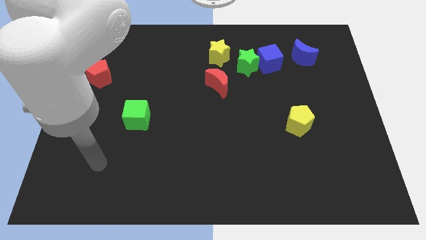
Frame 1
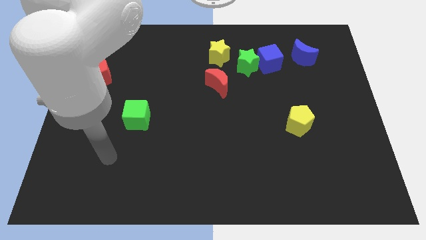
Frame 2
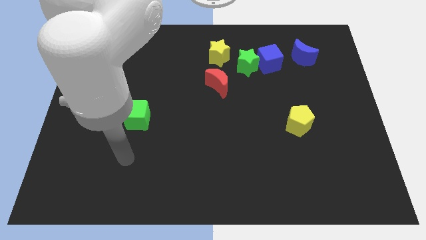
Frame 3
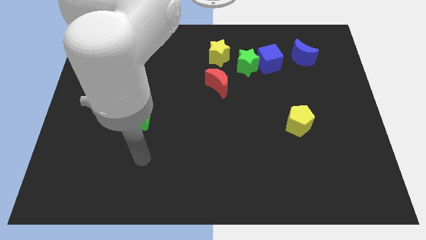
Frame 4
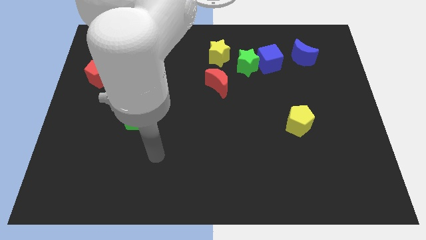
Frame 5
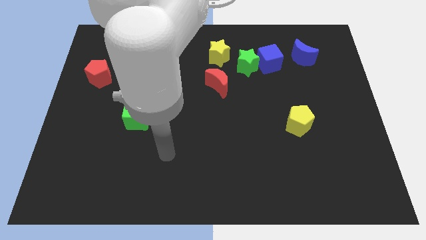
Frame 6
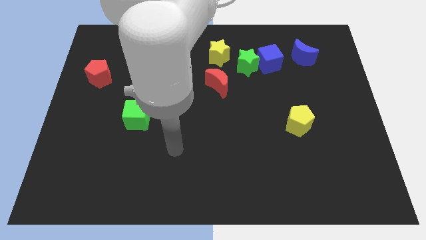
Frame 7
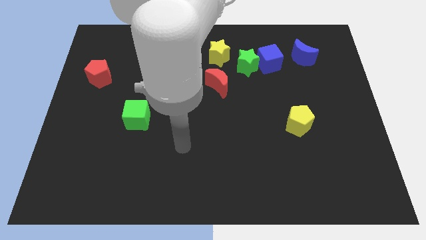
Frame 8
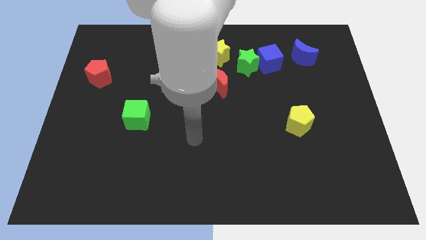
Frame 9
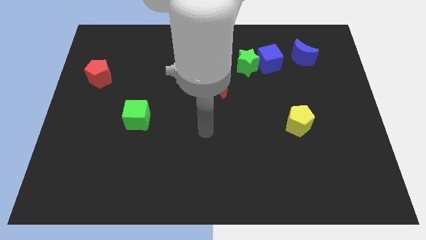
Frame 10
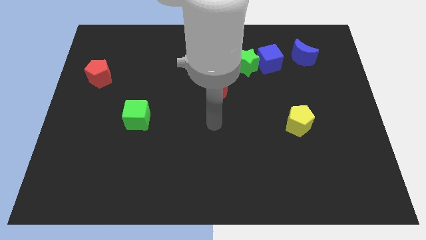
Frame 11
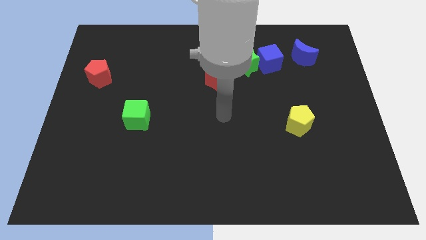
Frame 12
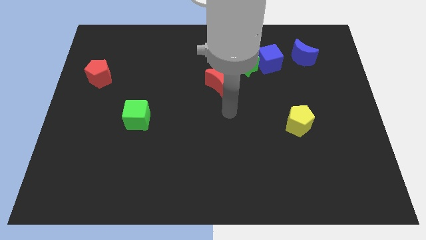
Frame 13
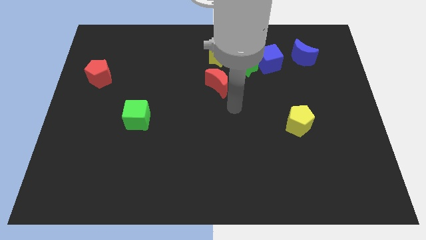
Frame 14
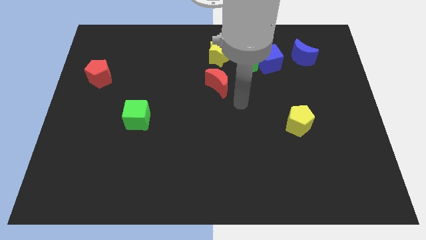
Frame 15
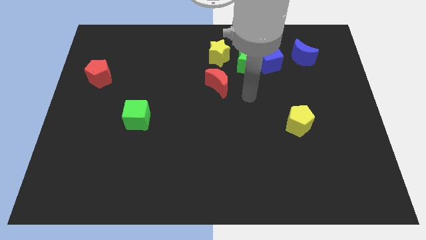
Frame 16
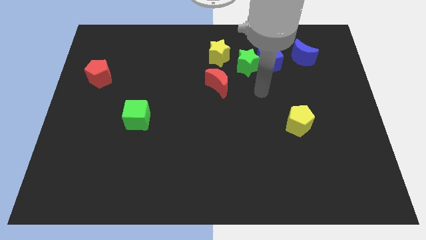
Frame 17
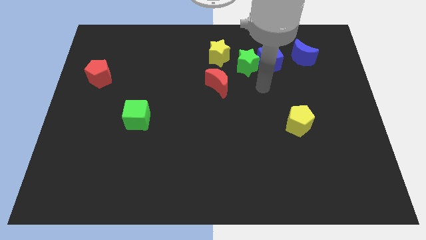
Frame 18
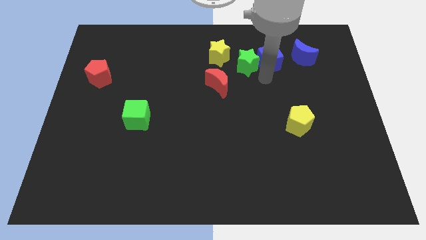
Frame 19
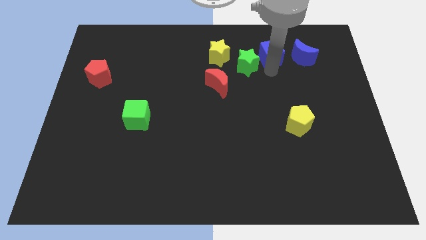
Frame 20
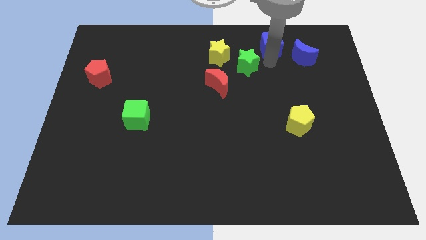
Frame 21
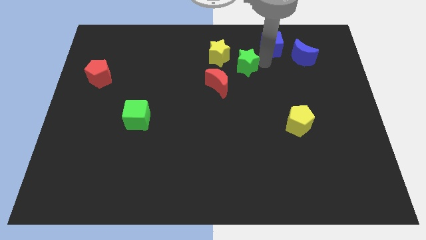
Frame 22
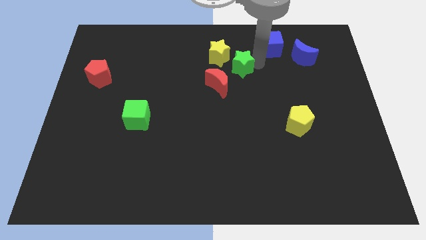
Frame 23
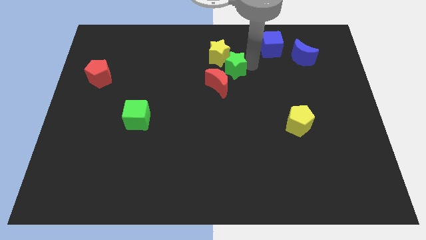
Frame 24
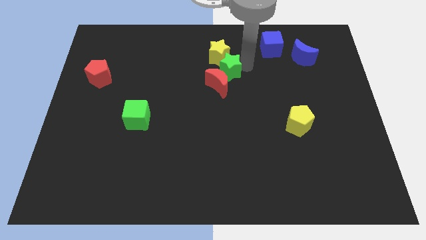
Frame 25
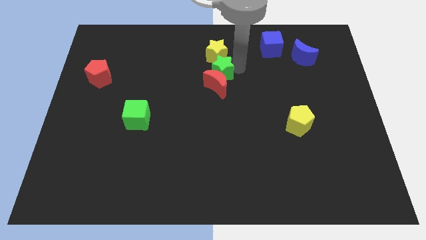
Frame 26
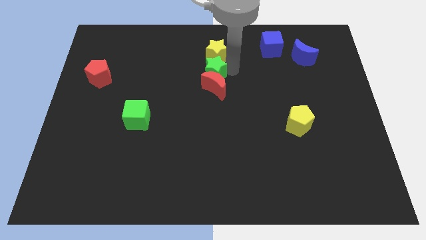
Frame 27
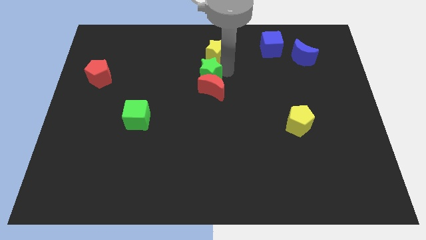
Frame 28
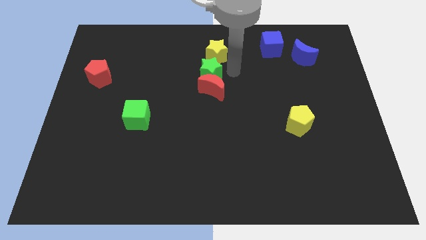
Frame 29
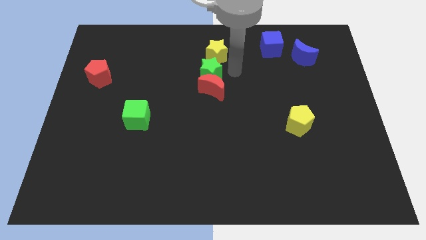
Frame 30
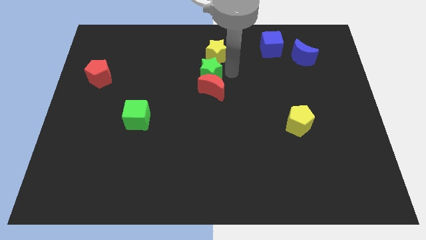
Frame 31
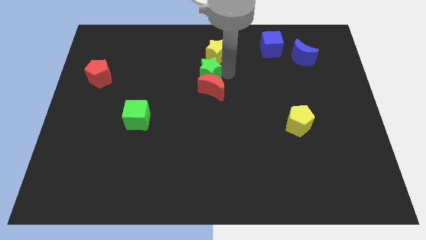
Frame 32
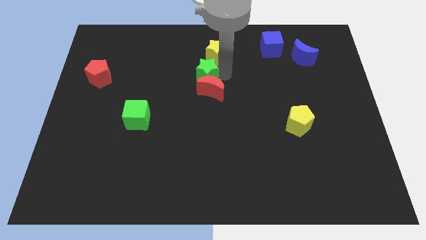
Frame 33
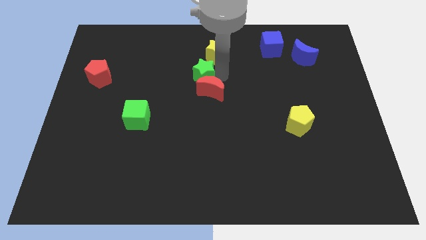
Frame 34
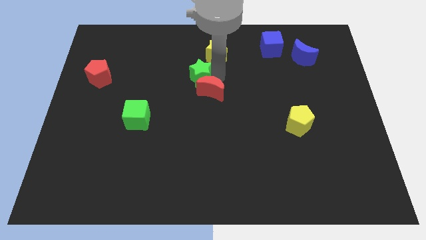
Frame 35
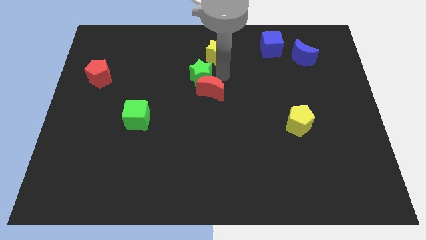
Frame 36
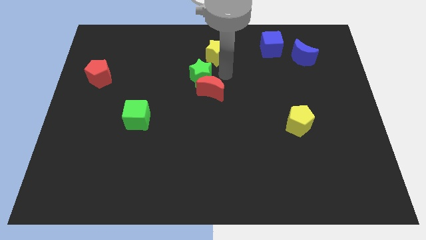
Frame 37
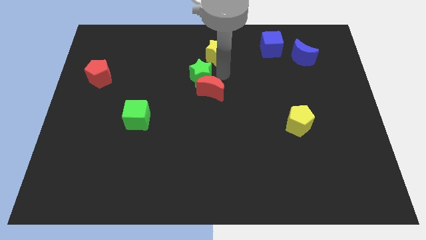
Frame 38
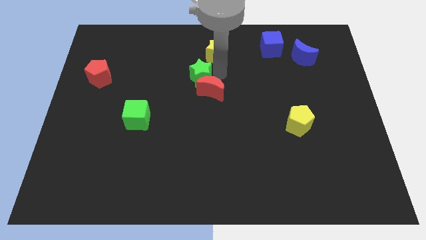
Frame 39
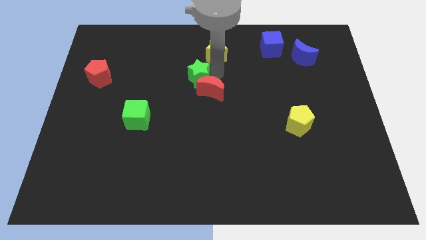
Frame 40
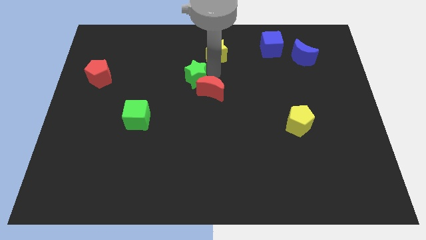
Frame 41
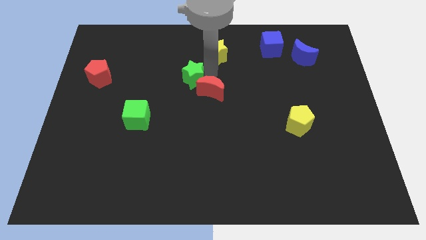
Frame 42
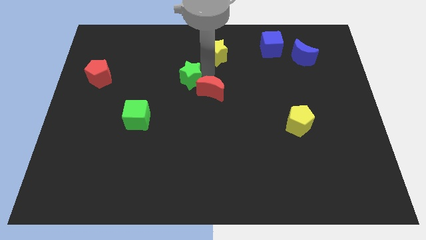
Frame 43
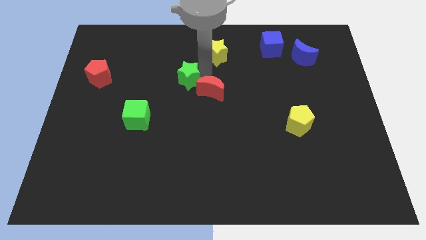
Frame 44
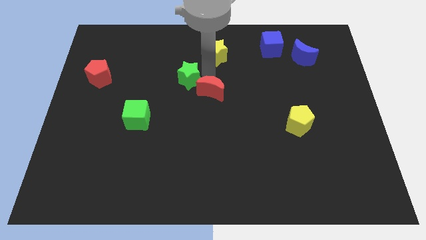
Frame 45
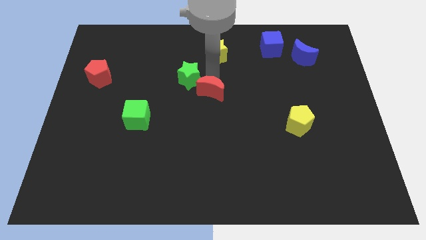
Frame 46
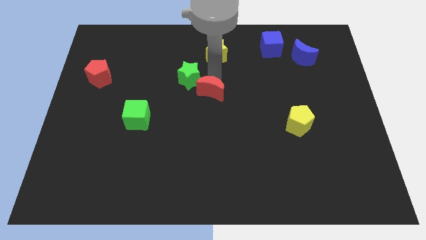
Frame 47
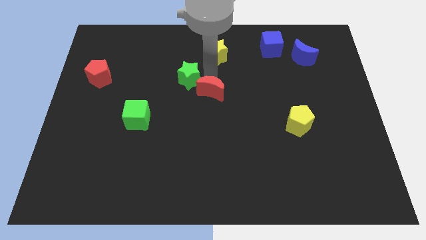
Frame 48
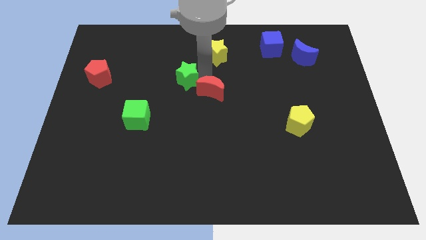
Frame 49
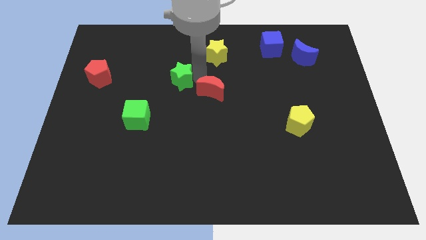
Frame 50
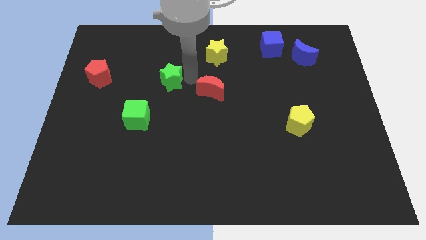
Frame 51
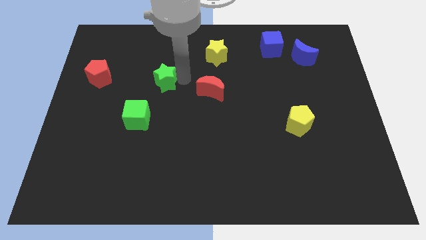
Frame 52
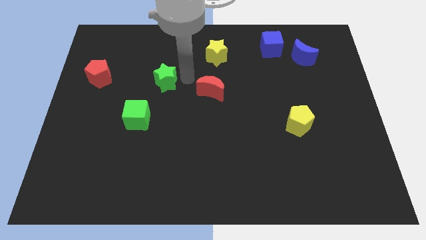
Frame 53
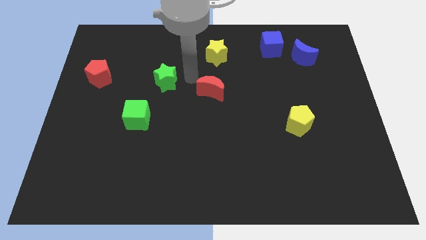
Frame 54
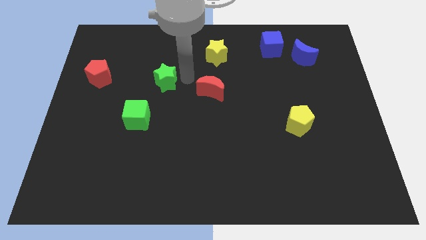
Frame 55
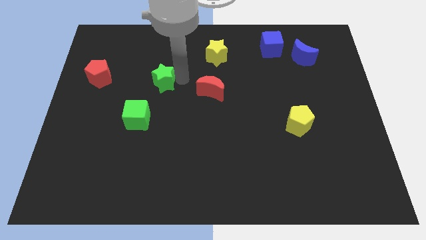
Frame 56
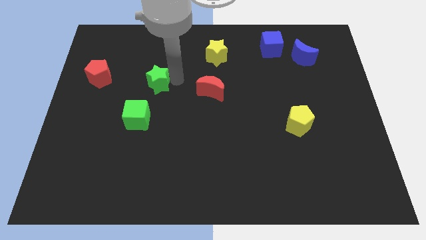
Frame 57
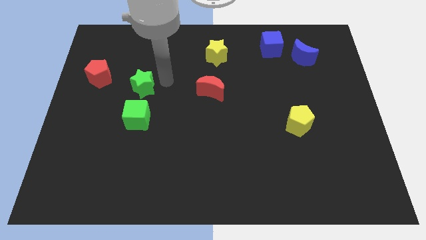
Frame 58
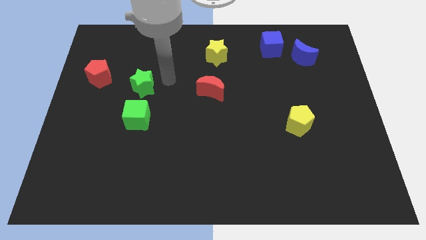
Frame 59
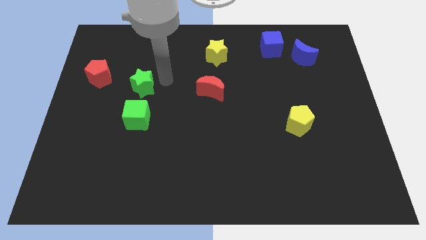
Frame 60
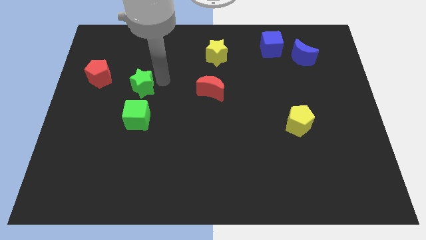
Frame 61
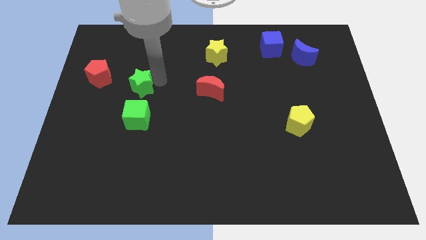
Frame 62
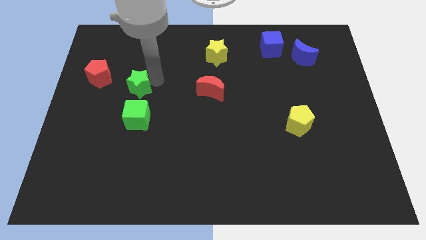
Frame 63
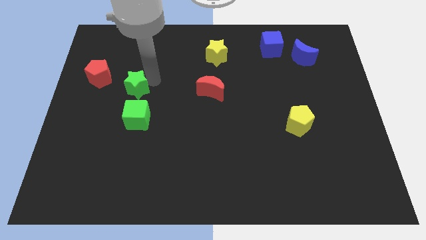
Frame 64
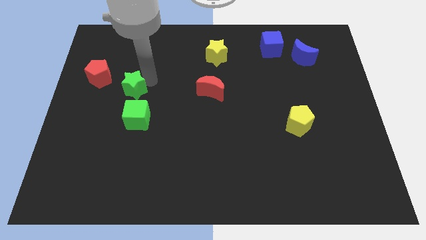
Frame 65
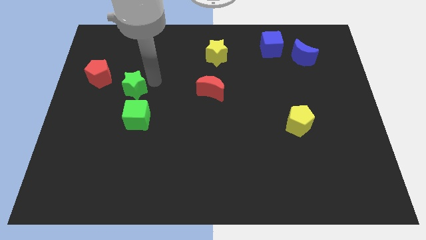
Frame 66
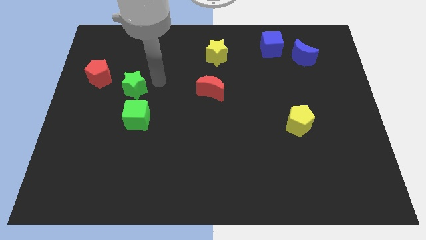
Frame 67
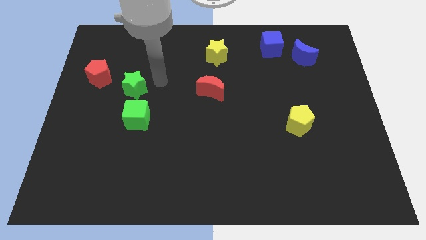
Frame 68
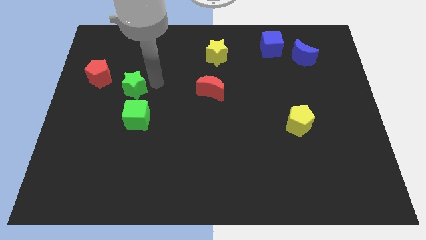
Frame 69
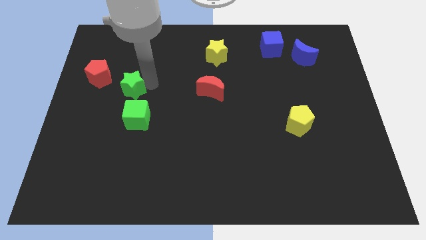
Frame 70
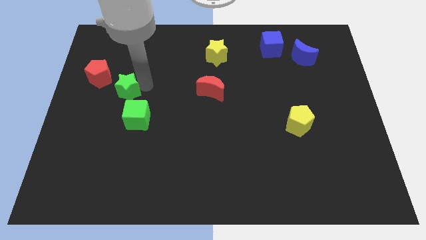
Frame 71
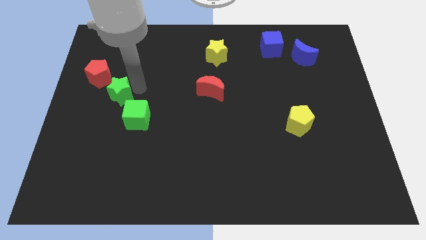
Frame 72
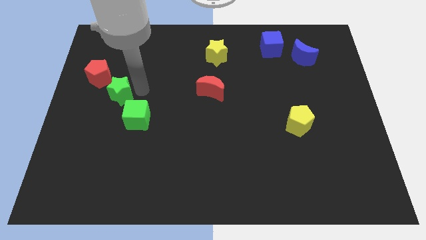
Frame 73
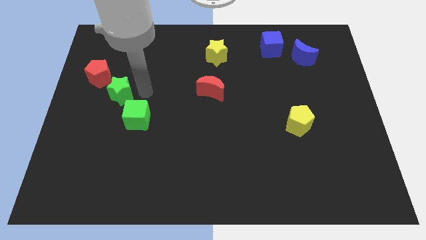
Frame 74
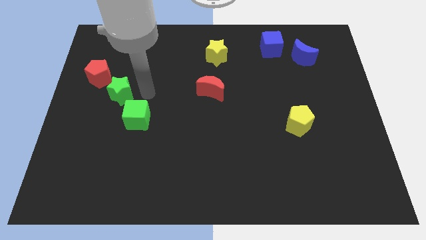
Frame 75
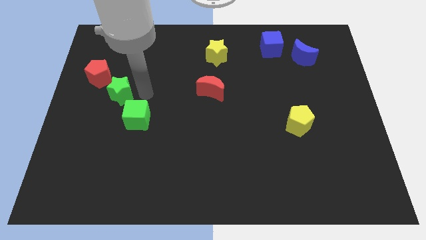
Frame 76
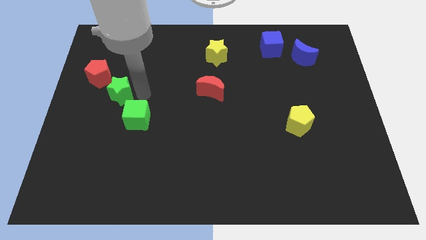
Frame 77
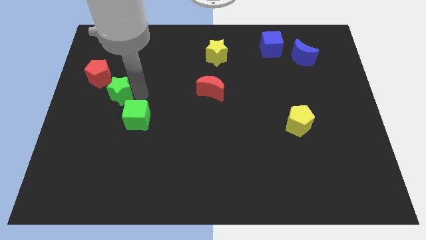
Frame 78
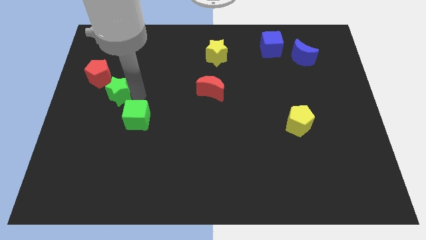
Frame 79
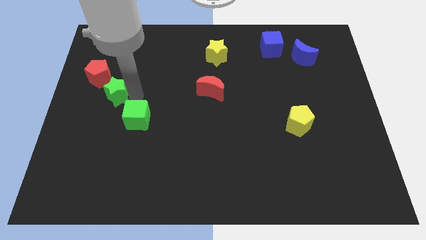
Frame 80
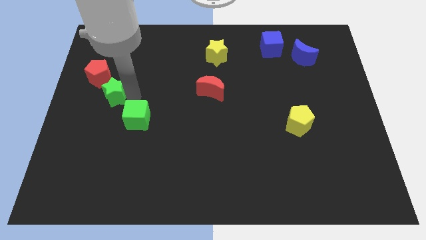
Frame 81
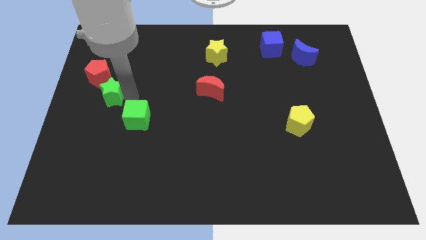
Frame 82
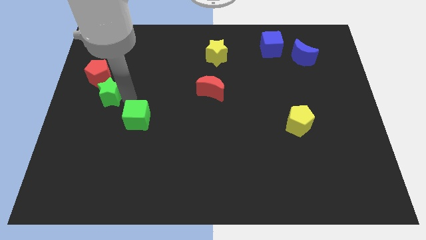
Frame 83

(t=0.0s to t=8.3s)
move the green star to the left side of the board
